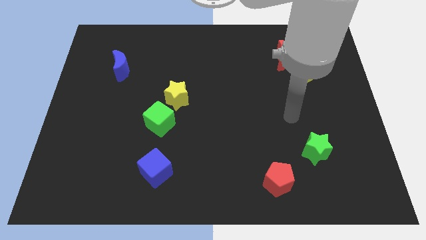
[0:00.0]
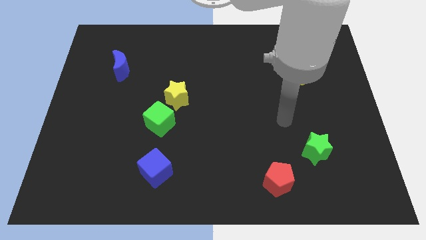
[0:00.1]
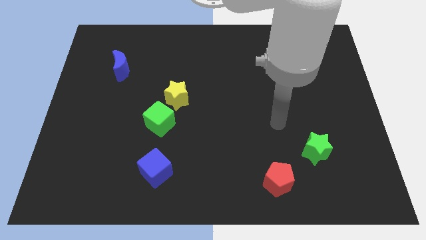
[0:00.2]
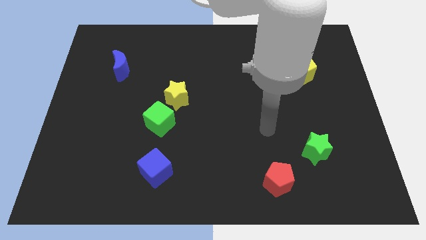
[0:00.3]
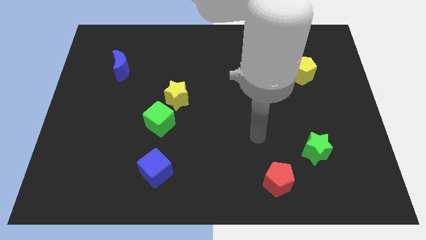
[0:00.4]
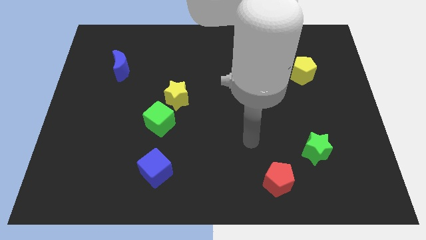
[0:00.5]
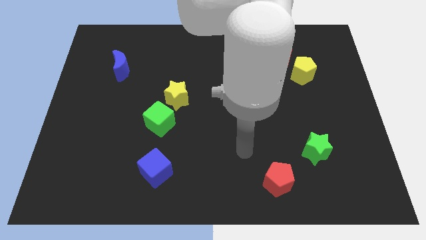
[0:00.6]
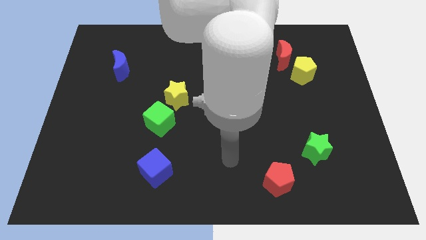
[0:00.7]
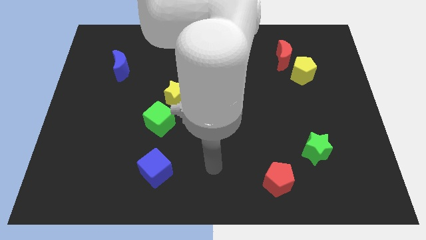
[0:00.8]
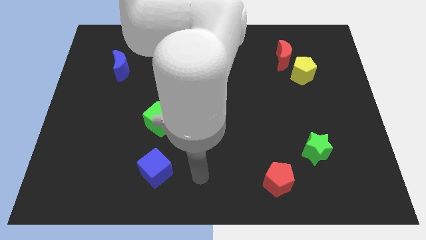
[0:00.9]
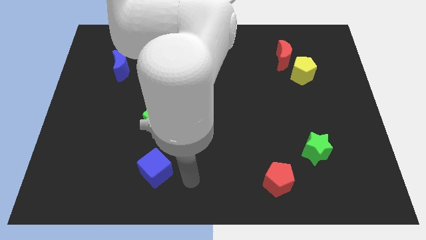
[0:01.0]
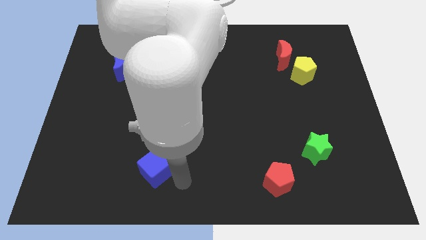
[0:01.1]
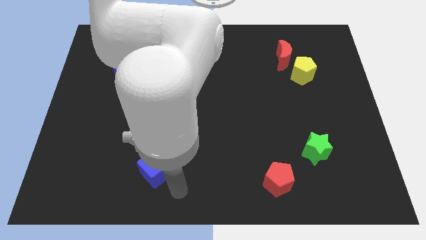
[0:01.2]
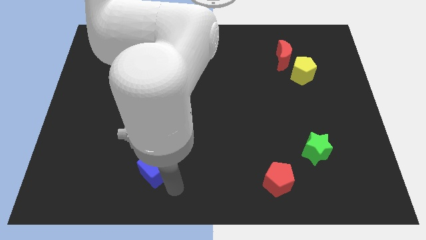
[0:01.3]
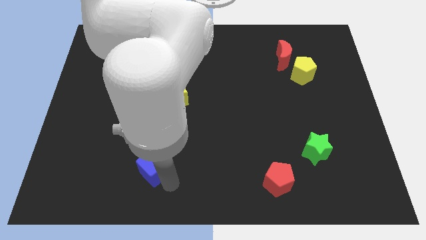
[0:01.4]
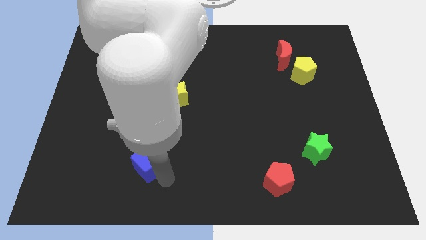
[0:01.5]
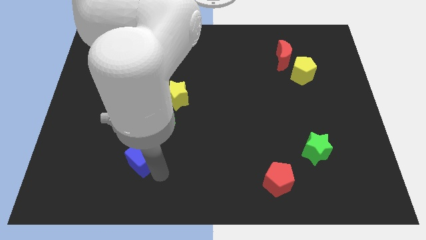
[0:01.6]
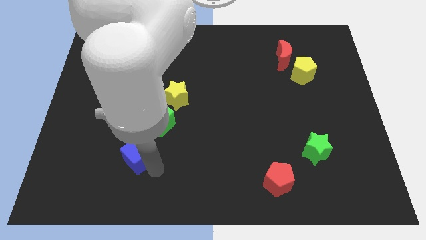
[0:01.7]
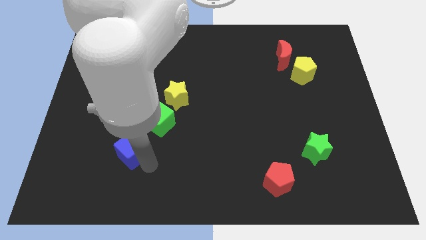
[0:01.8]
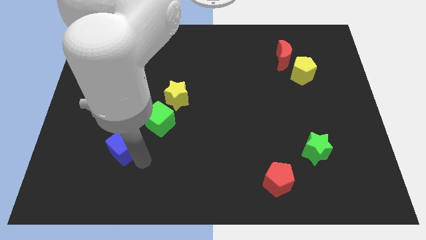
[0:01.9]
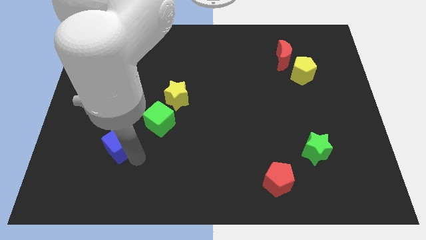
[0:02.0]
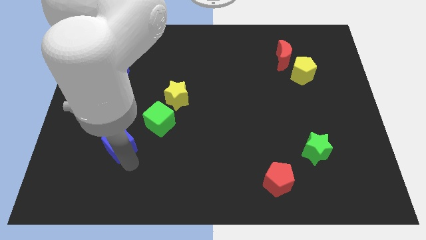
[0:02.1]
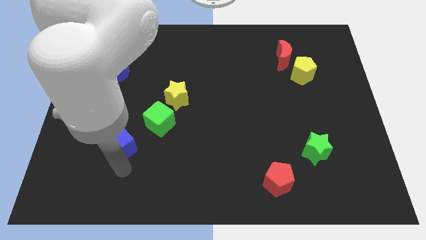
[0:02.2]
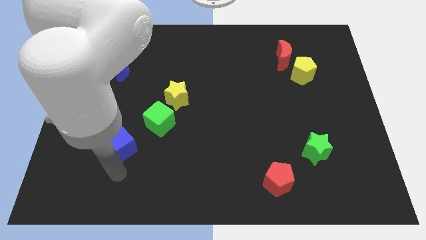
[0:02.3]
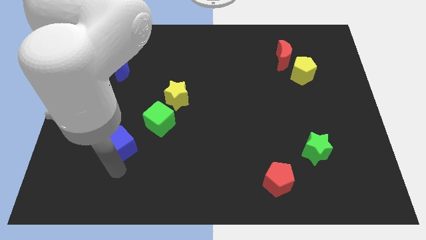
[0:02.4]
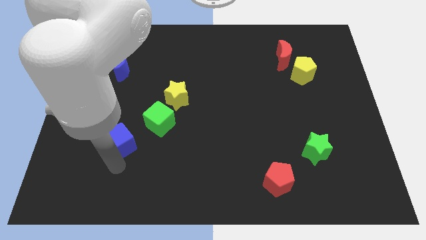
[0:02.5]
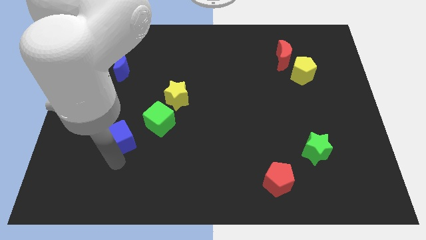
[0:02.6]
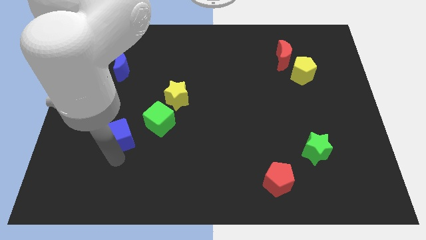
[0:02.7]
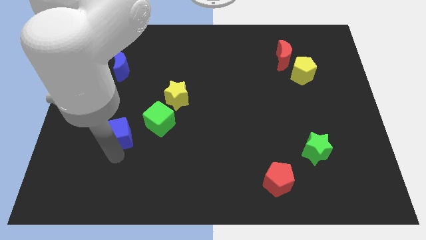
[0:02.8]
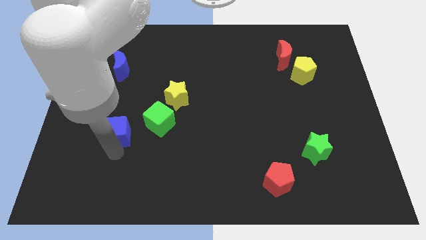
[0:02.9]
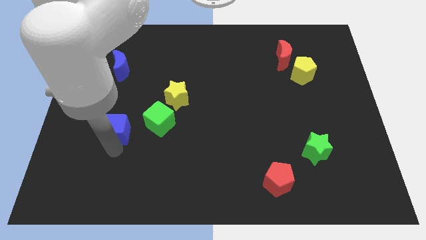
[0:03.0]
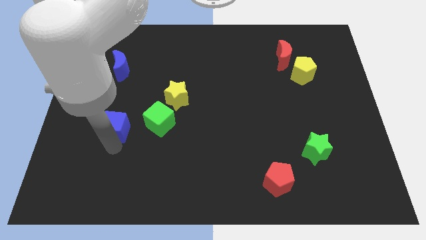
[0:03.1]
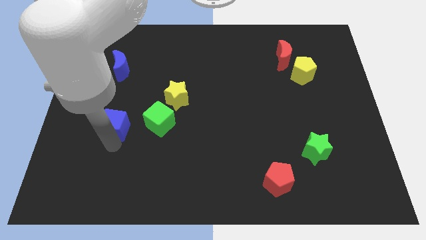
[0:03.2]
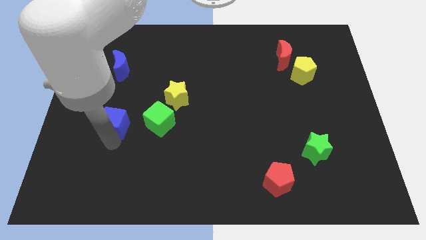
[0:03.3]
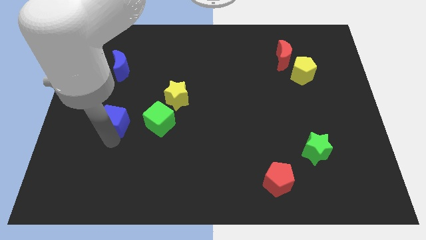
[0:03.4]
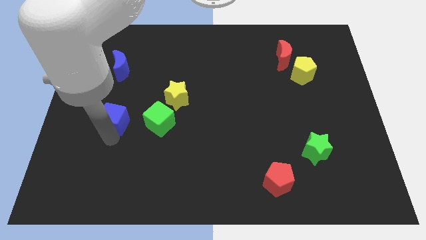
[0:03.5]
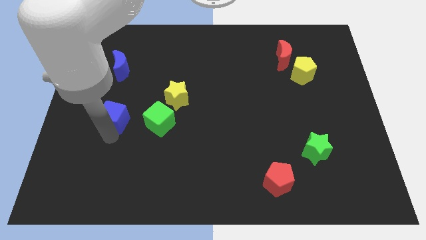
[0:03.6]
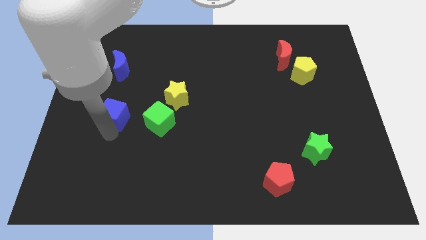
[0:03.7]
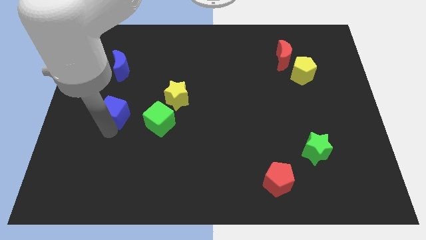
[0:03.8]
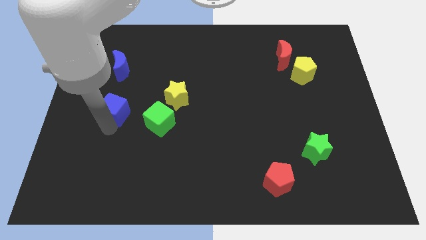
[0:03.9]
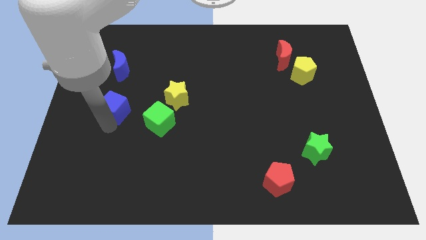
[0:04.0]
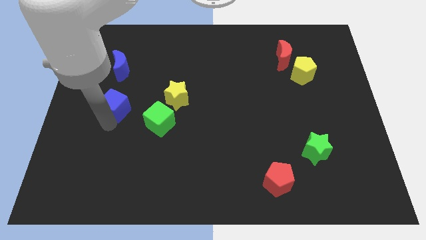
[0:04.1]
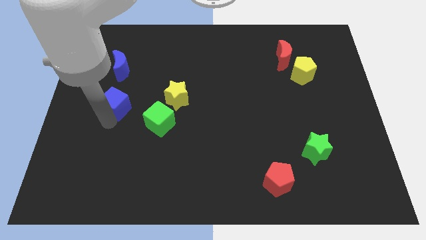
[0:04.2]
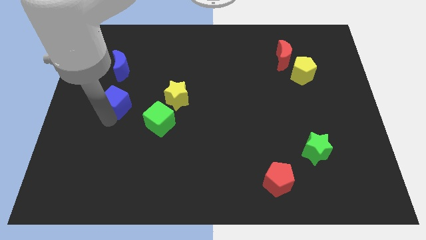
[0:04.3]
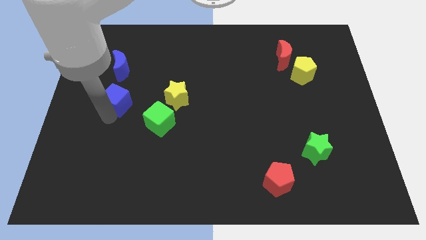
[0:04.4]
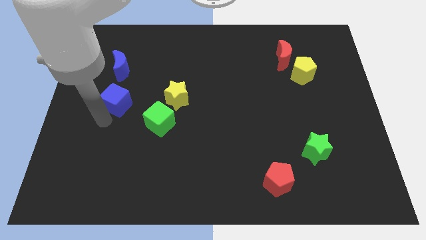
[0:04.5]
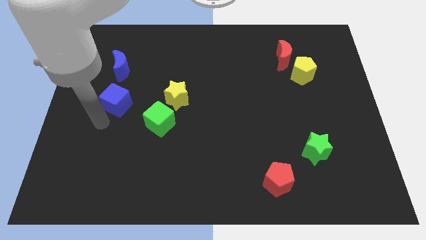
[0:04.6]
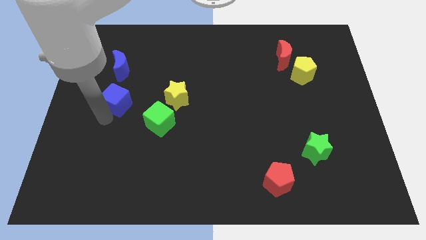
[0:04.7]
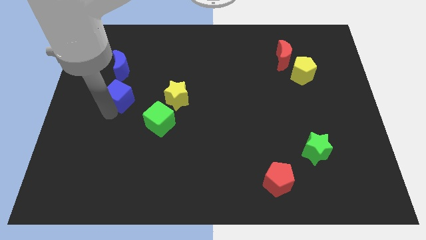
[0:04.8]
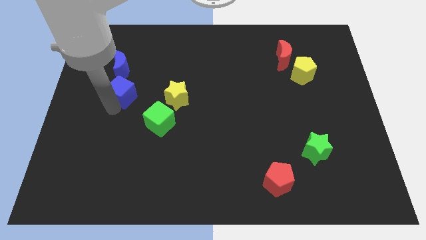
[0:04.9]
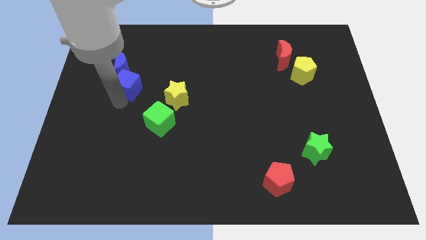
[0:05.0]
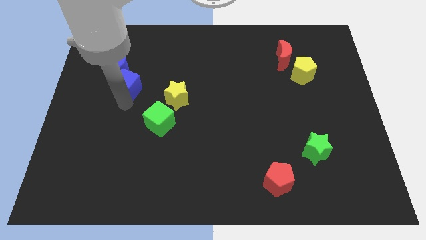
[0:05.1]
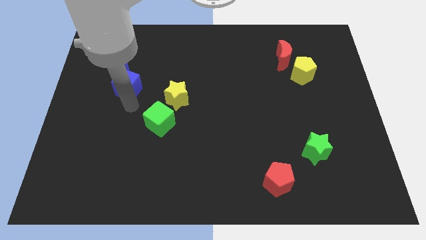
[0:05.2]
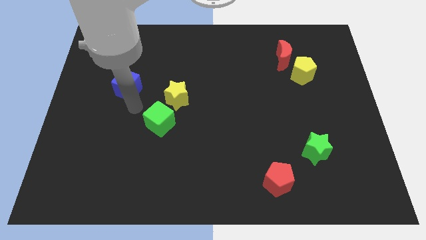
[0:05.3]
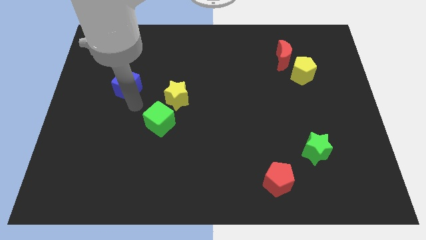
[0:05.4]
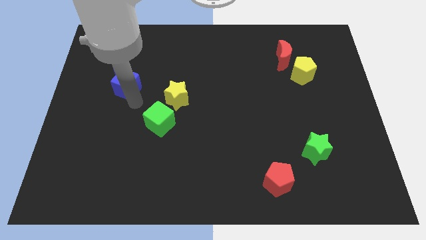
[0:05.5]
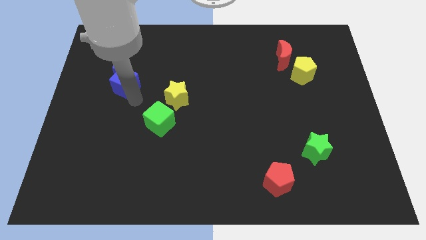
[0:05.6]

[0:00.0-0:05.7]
slide the blue cube towards the blue moon
